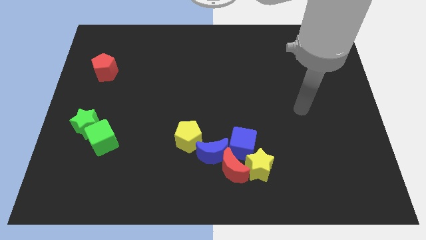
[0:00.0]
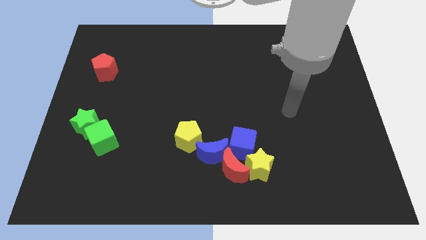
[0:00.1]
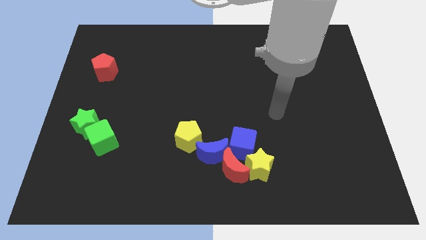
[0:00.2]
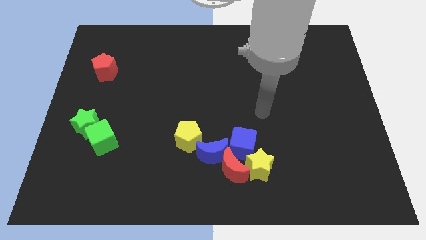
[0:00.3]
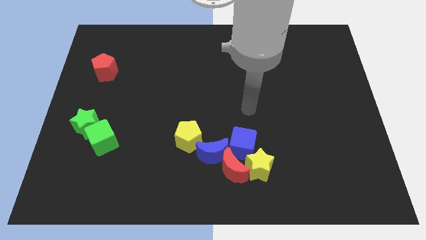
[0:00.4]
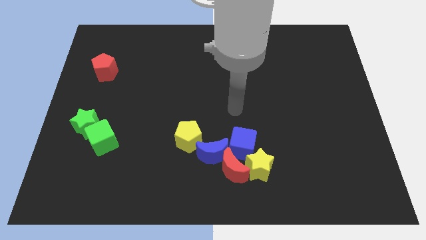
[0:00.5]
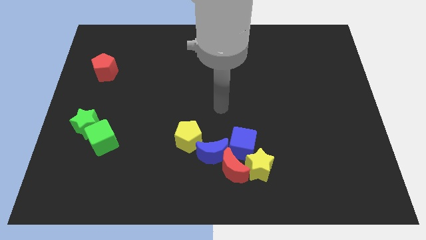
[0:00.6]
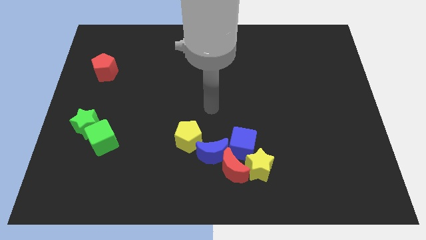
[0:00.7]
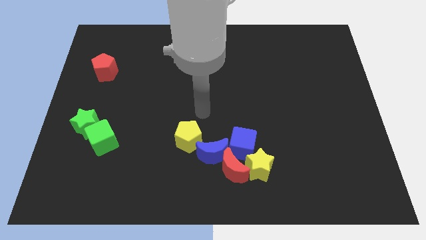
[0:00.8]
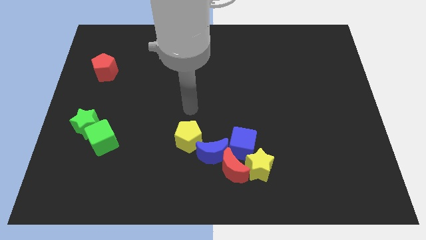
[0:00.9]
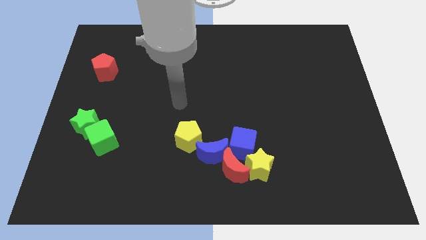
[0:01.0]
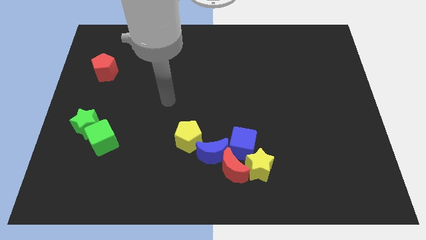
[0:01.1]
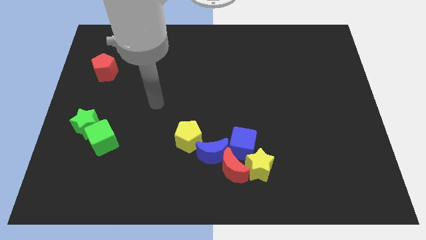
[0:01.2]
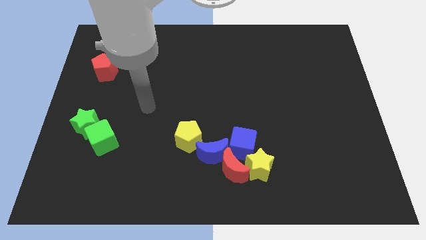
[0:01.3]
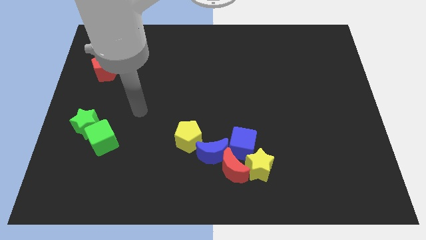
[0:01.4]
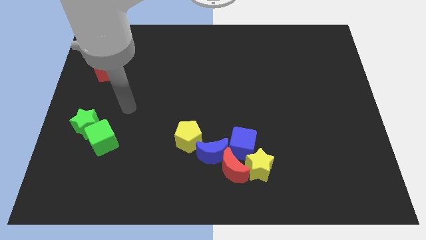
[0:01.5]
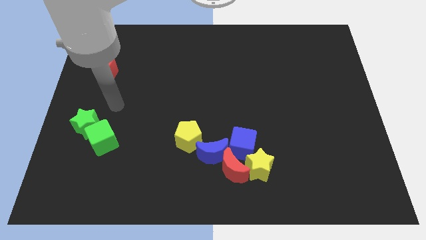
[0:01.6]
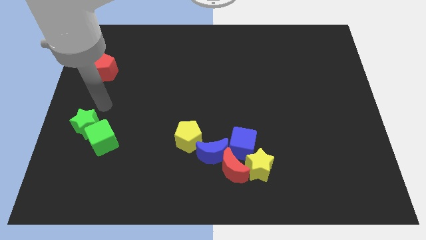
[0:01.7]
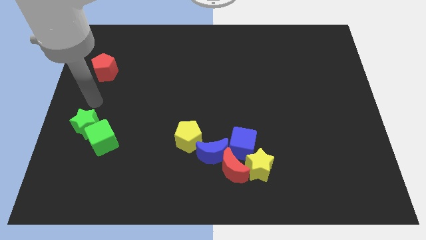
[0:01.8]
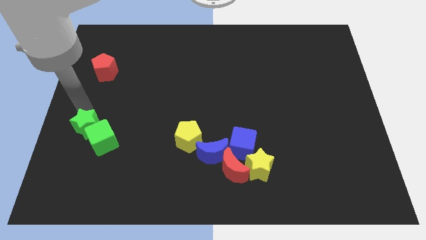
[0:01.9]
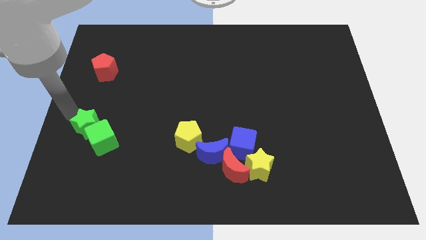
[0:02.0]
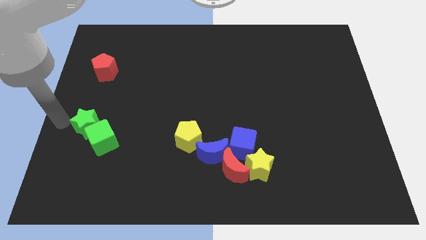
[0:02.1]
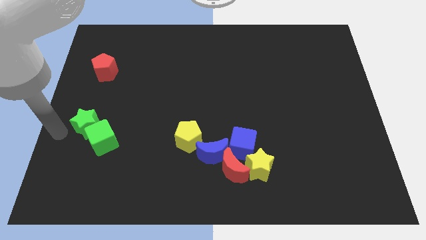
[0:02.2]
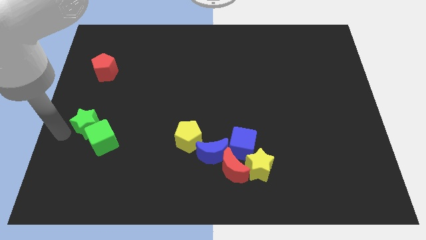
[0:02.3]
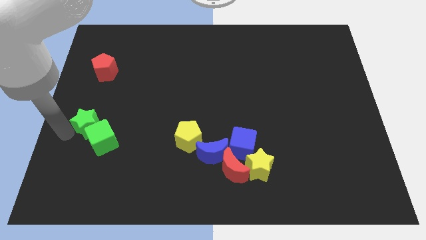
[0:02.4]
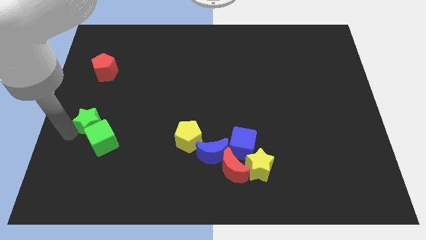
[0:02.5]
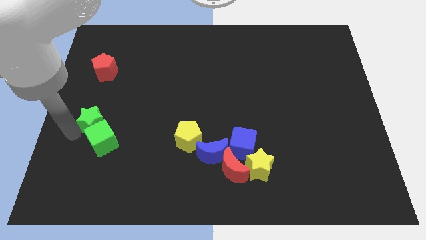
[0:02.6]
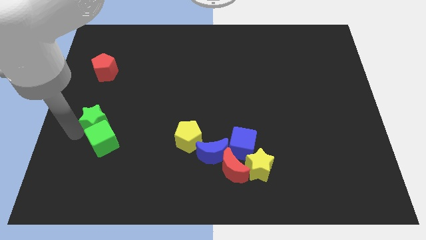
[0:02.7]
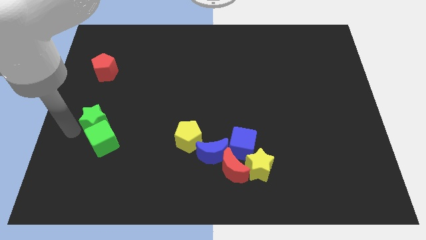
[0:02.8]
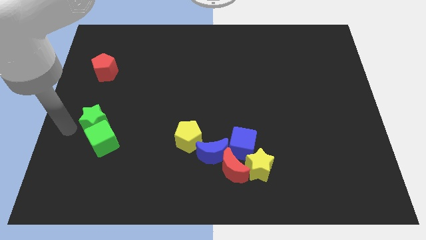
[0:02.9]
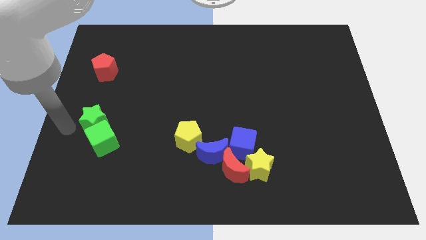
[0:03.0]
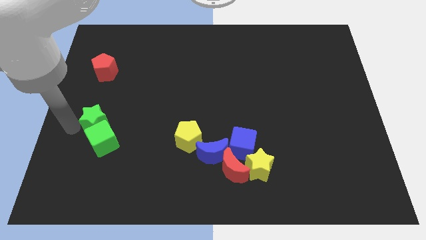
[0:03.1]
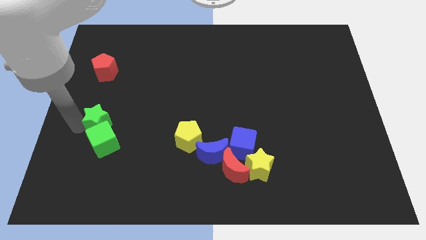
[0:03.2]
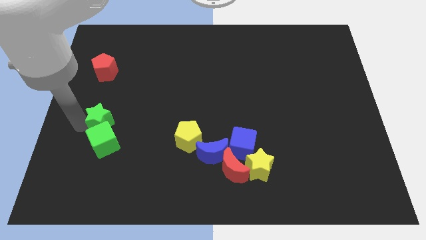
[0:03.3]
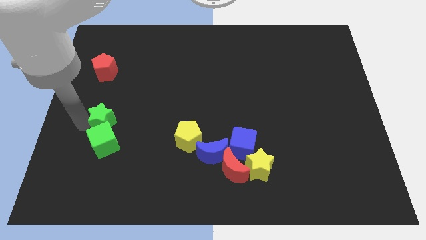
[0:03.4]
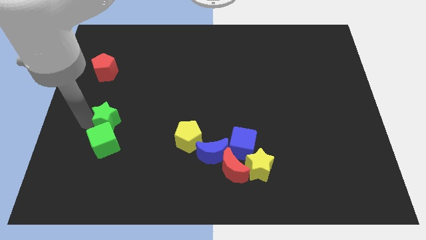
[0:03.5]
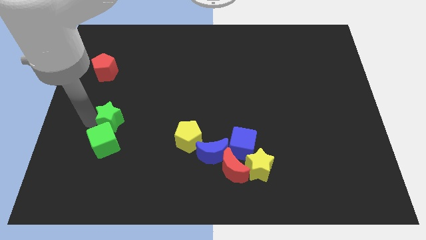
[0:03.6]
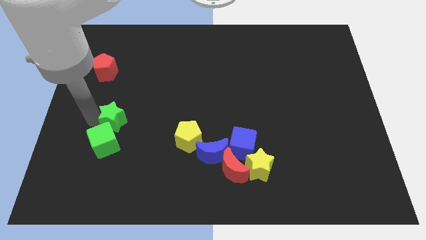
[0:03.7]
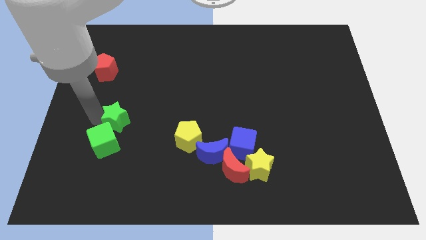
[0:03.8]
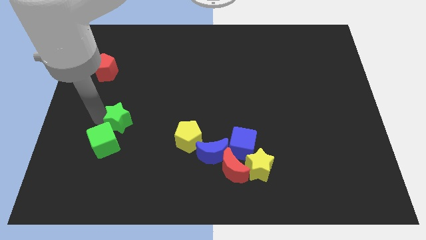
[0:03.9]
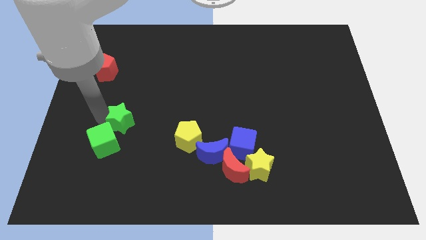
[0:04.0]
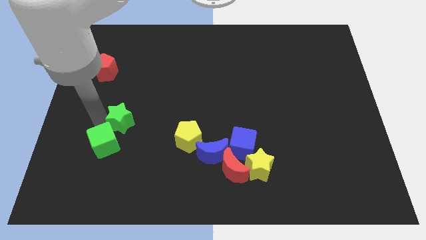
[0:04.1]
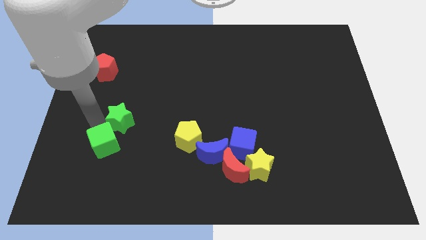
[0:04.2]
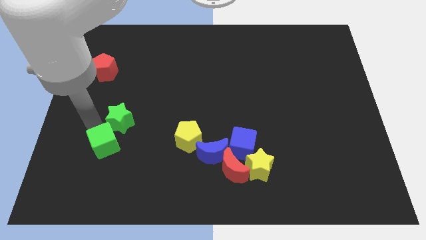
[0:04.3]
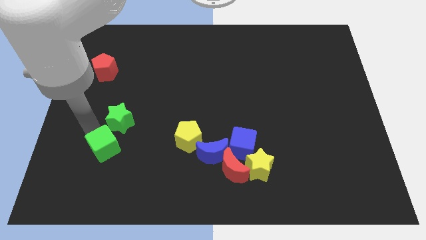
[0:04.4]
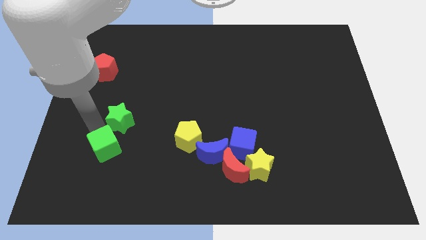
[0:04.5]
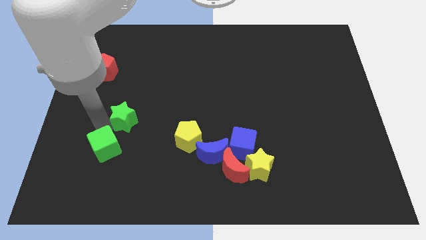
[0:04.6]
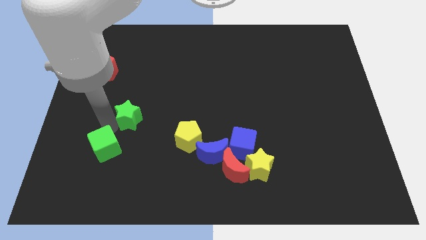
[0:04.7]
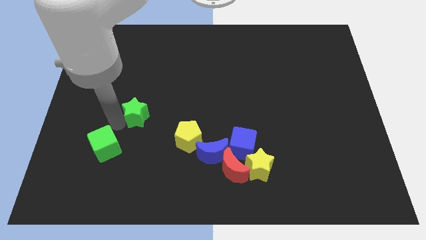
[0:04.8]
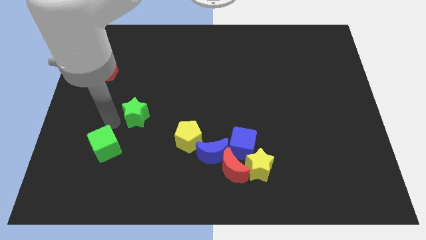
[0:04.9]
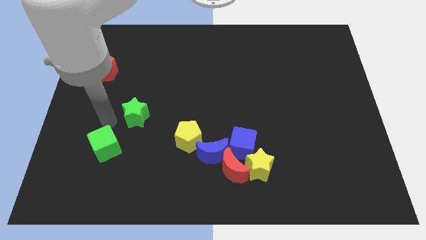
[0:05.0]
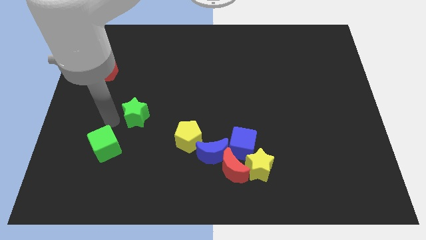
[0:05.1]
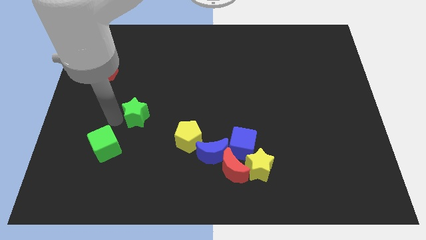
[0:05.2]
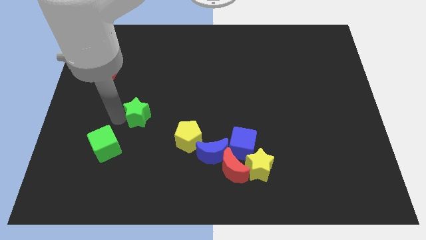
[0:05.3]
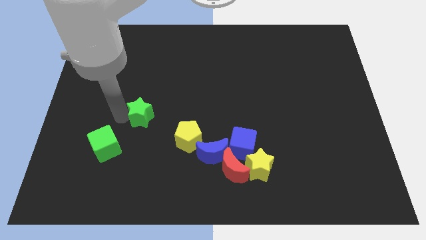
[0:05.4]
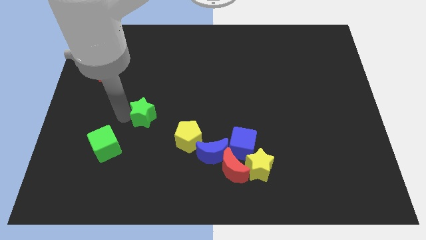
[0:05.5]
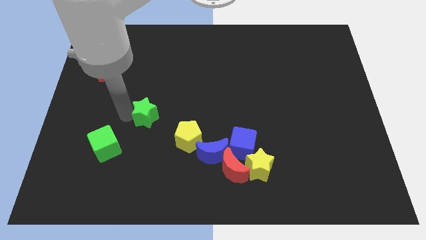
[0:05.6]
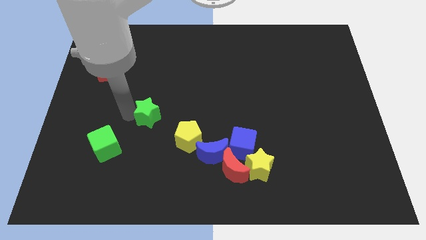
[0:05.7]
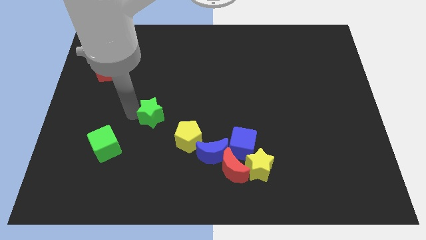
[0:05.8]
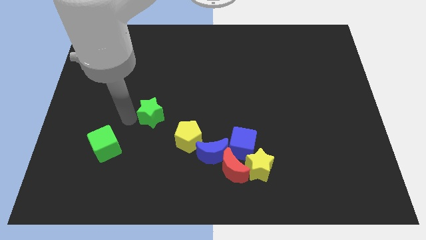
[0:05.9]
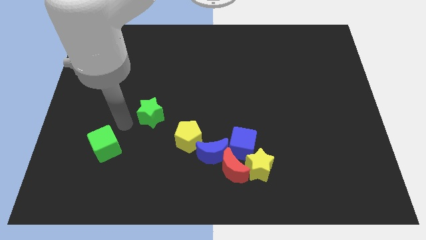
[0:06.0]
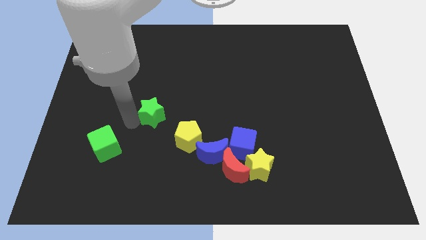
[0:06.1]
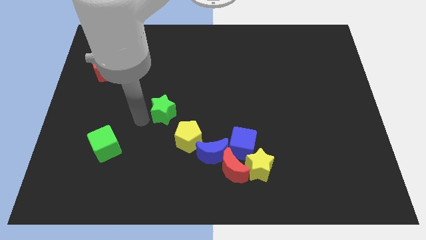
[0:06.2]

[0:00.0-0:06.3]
put the green star to the middle of the board
